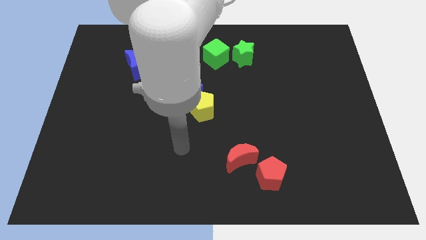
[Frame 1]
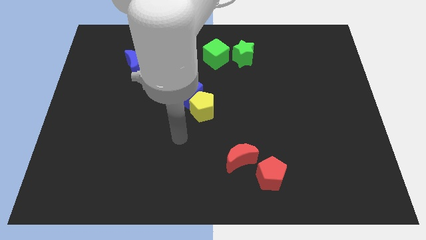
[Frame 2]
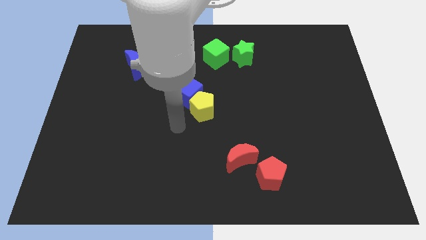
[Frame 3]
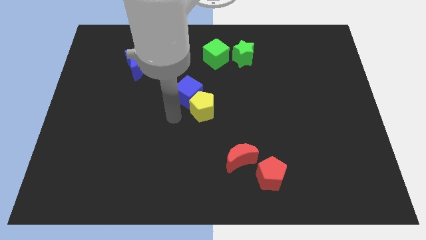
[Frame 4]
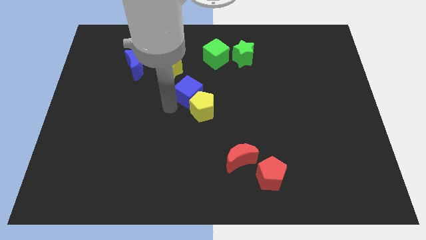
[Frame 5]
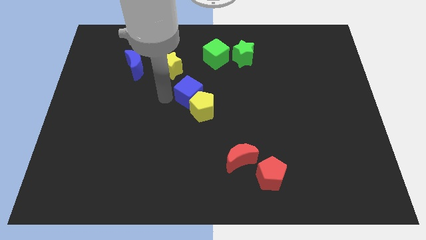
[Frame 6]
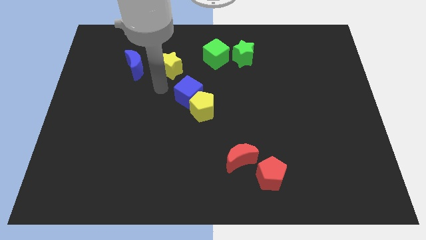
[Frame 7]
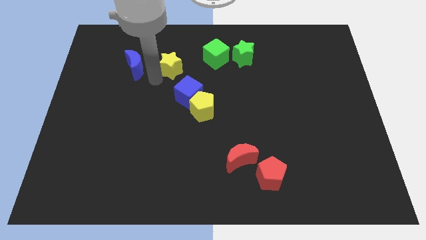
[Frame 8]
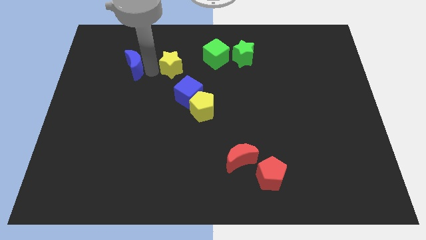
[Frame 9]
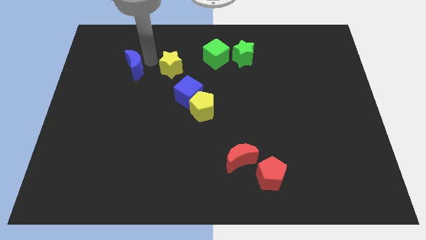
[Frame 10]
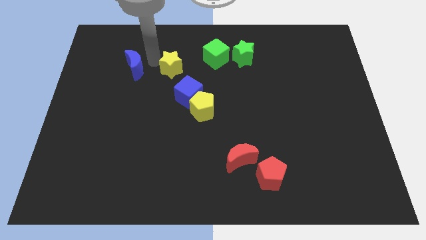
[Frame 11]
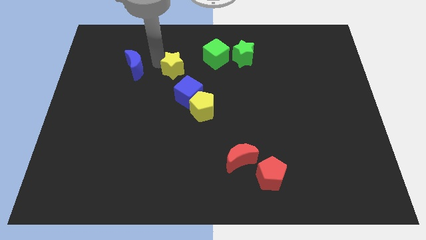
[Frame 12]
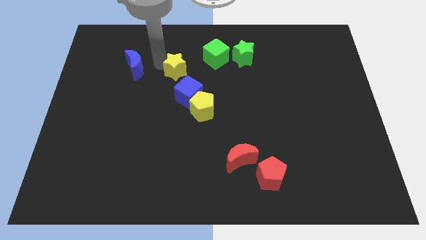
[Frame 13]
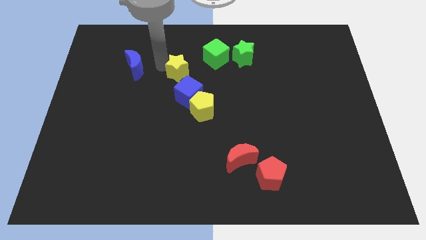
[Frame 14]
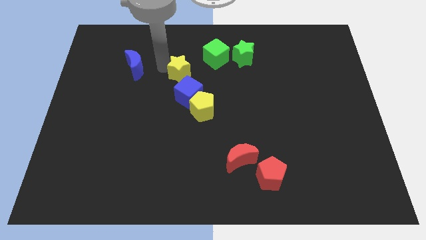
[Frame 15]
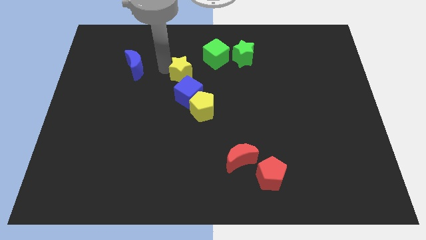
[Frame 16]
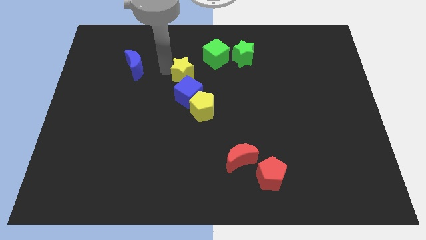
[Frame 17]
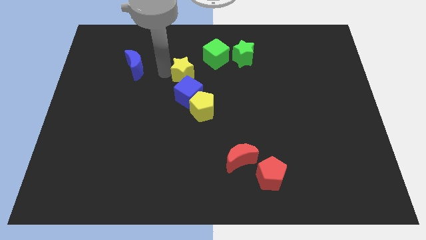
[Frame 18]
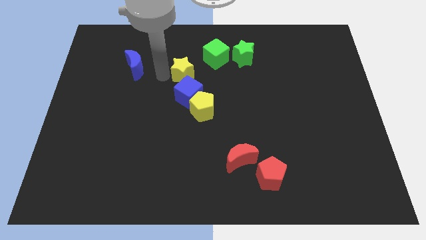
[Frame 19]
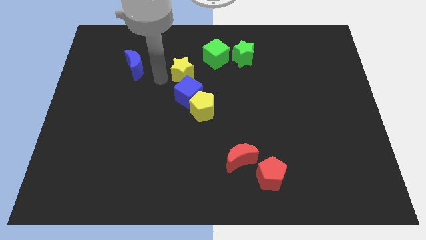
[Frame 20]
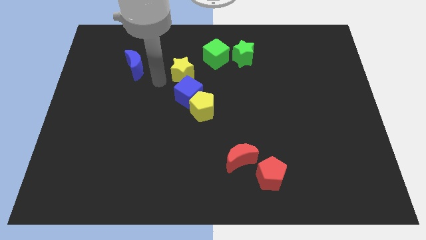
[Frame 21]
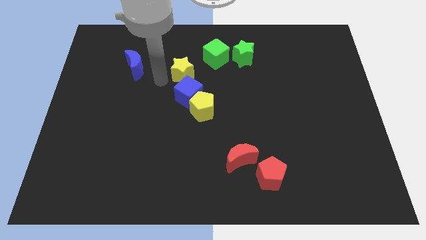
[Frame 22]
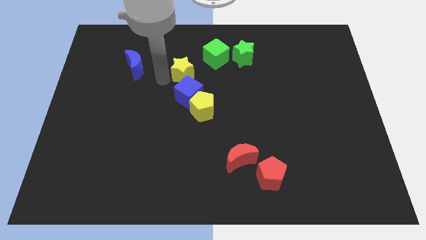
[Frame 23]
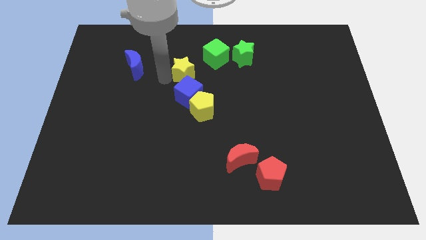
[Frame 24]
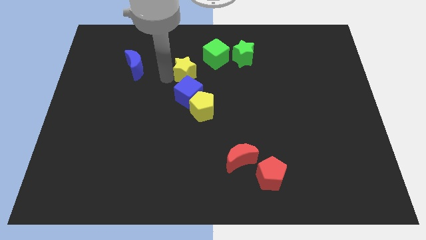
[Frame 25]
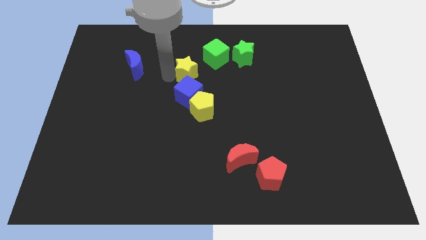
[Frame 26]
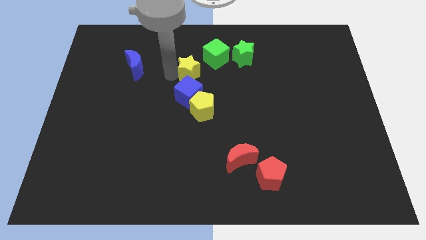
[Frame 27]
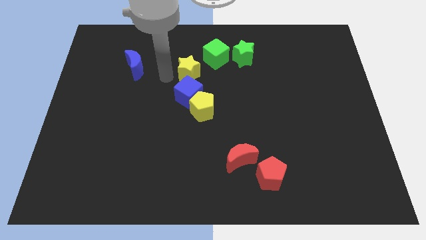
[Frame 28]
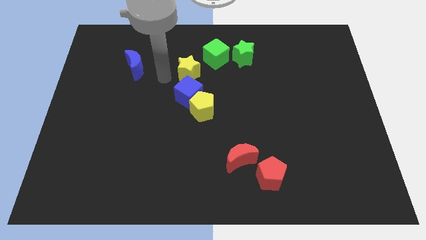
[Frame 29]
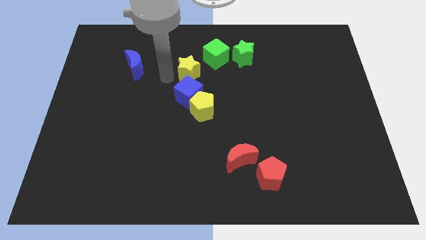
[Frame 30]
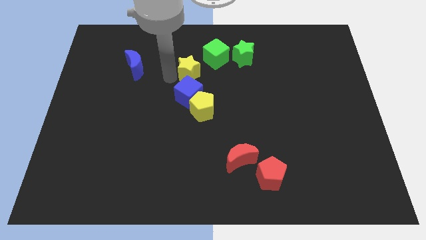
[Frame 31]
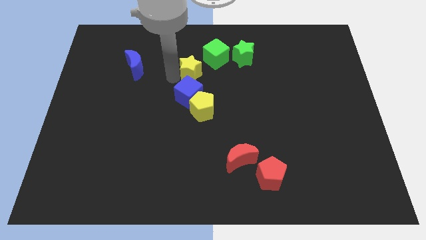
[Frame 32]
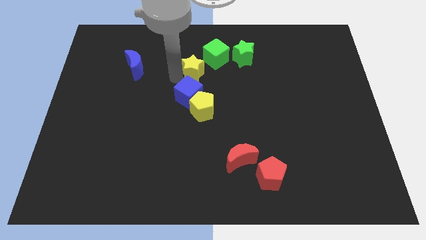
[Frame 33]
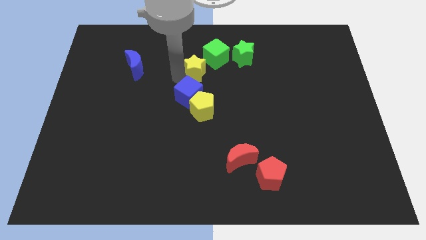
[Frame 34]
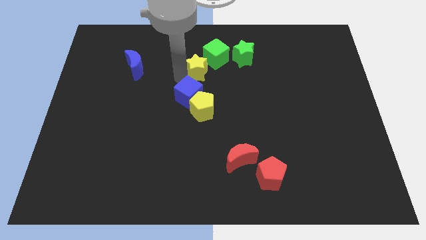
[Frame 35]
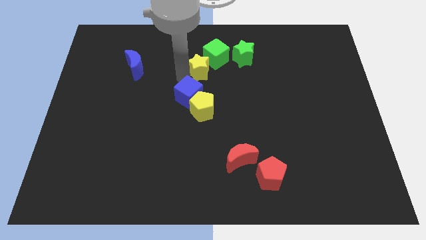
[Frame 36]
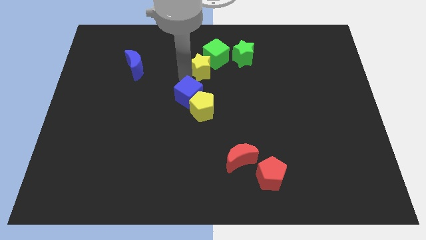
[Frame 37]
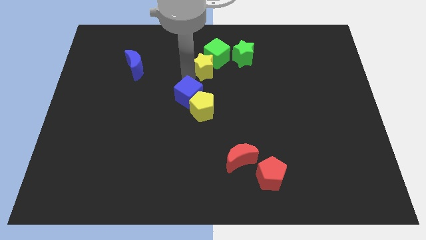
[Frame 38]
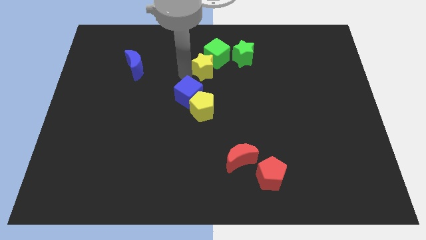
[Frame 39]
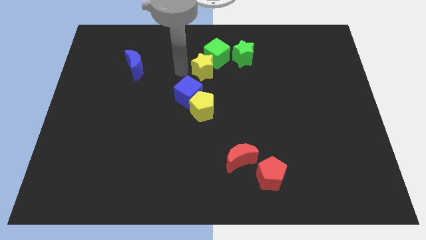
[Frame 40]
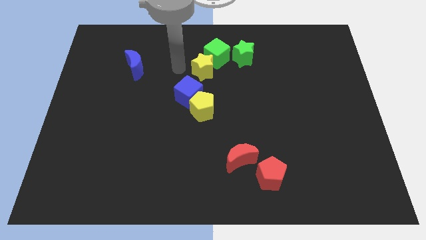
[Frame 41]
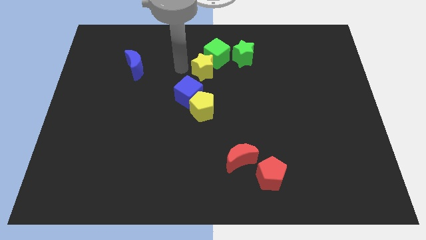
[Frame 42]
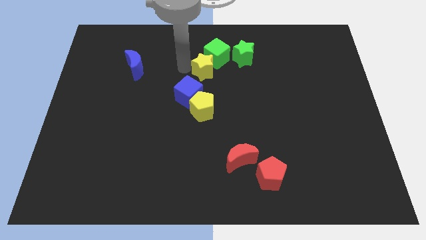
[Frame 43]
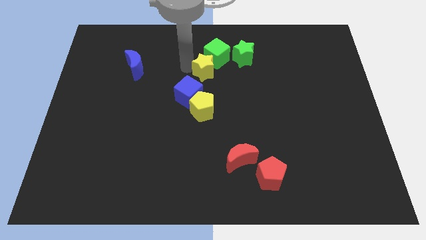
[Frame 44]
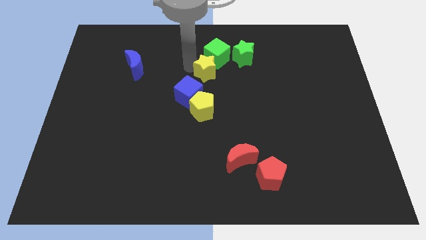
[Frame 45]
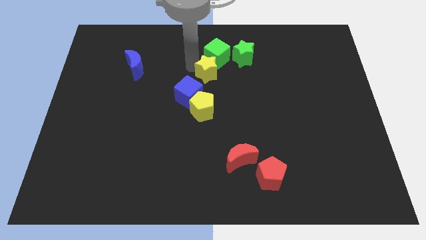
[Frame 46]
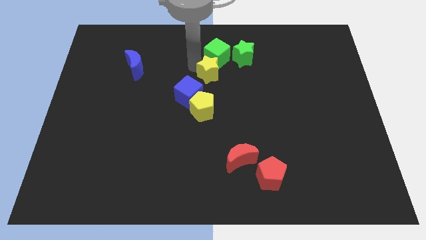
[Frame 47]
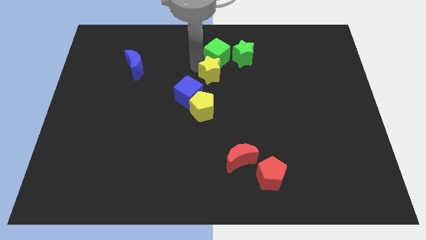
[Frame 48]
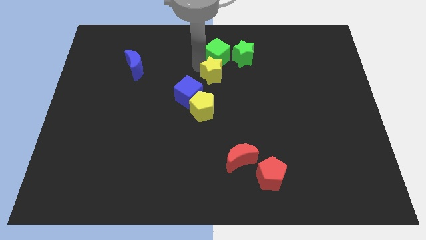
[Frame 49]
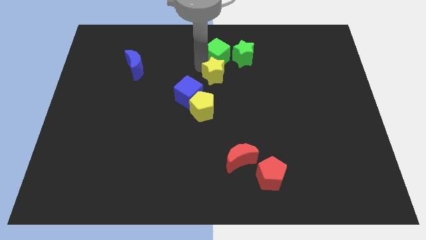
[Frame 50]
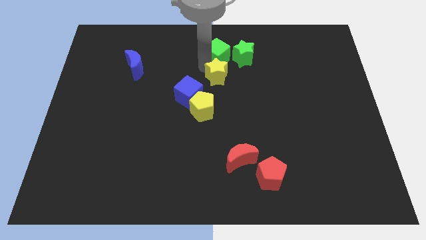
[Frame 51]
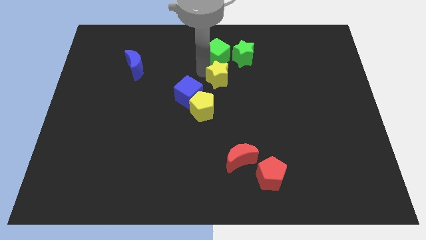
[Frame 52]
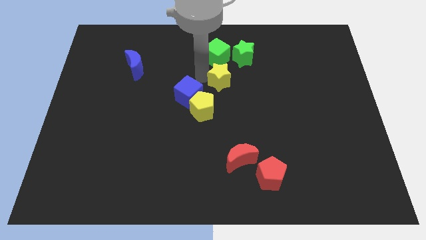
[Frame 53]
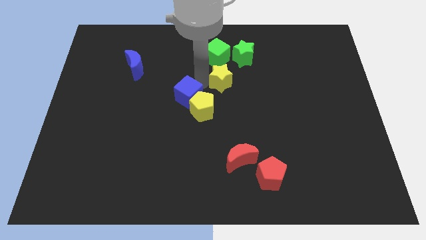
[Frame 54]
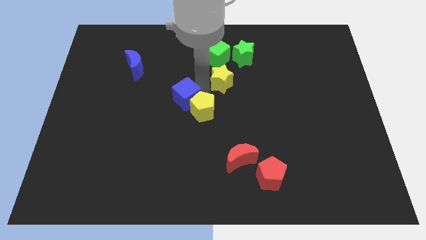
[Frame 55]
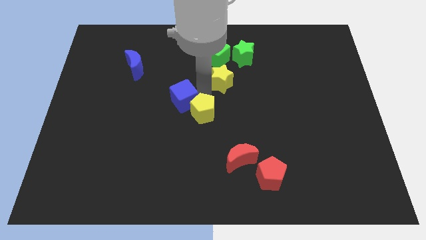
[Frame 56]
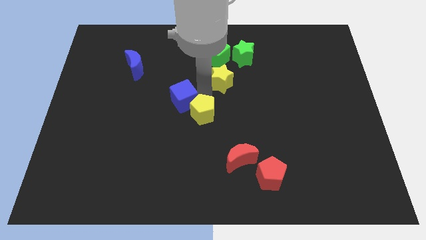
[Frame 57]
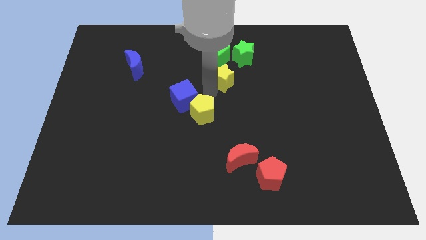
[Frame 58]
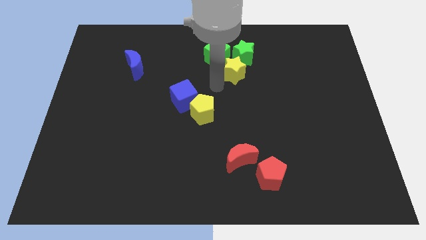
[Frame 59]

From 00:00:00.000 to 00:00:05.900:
put the yellow star next to the green star

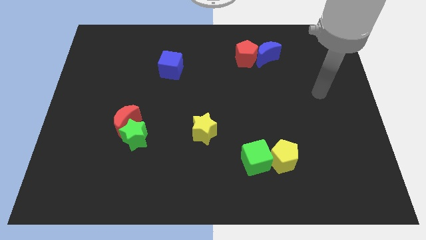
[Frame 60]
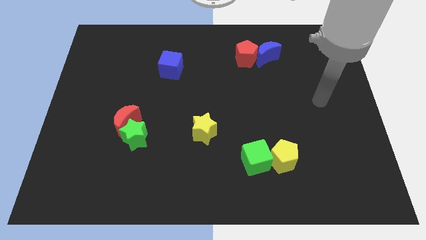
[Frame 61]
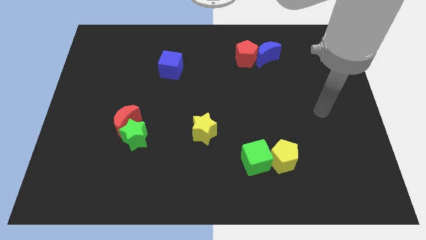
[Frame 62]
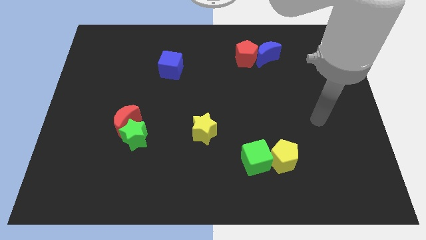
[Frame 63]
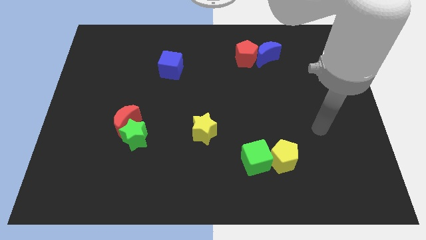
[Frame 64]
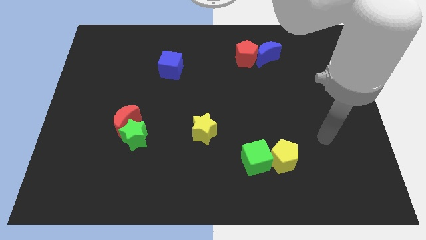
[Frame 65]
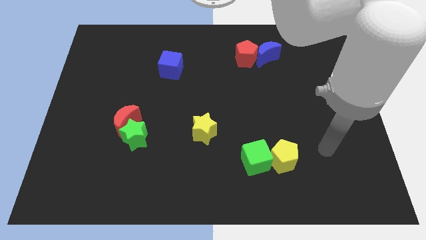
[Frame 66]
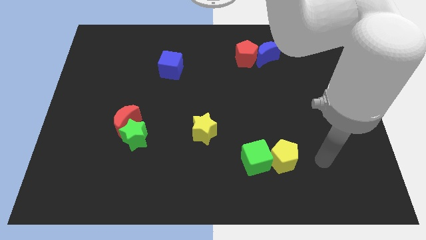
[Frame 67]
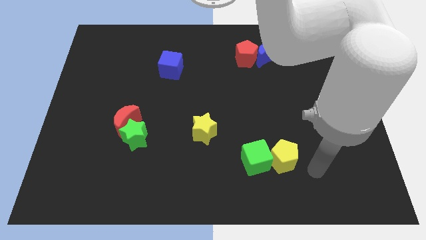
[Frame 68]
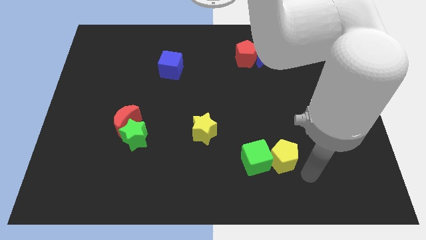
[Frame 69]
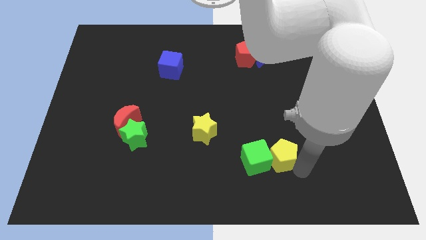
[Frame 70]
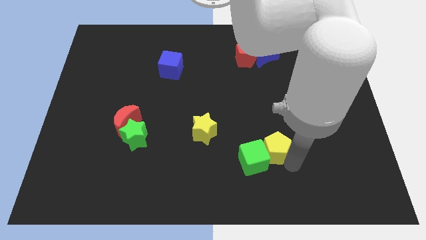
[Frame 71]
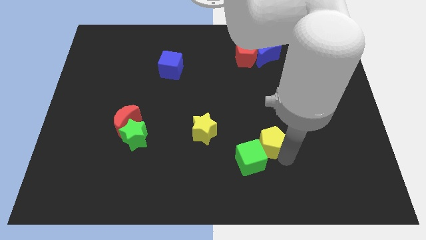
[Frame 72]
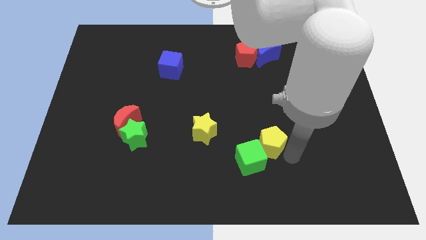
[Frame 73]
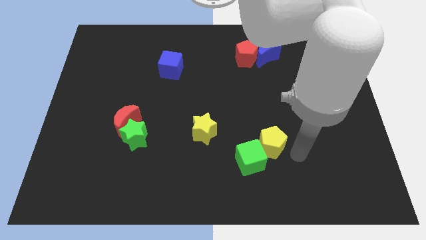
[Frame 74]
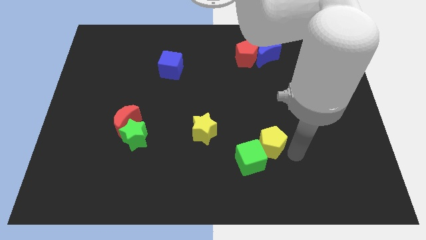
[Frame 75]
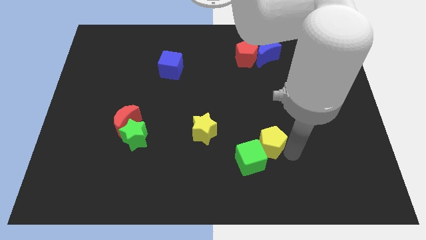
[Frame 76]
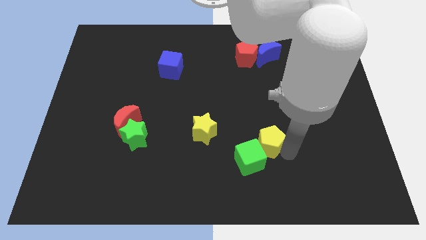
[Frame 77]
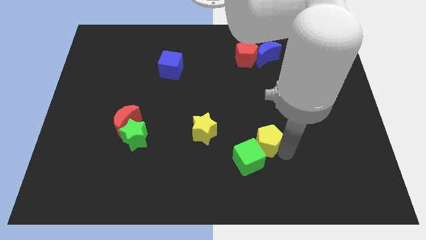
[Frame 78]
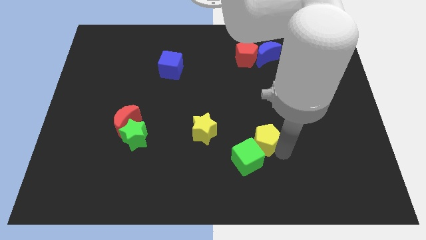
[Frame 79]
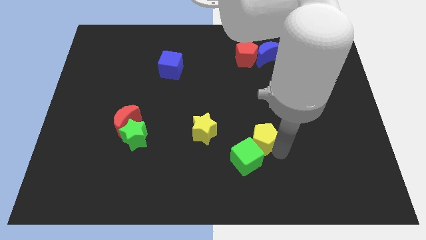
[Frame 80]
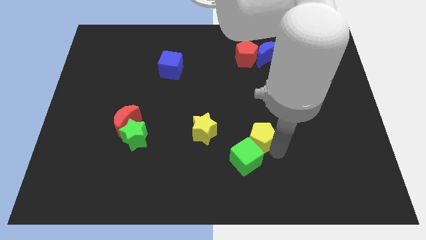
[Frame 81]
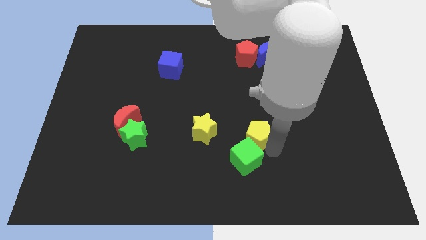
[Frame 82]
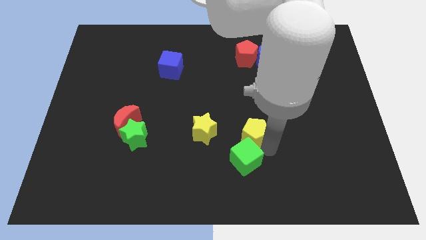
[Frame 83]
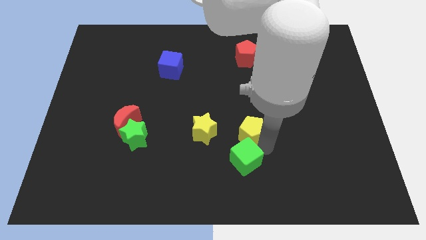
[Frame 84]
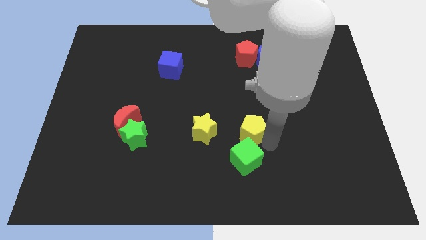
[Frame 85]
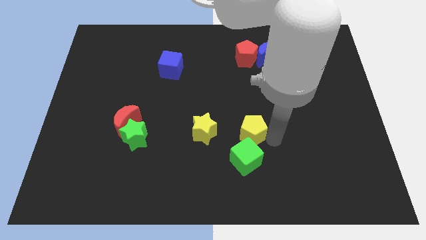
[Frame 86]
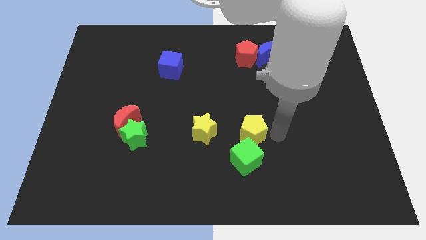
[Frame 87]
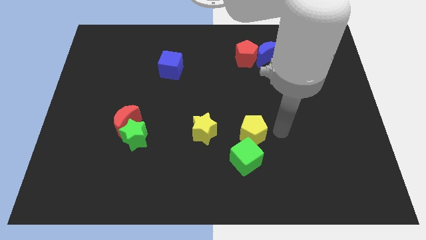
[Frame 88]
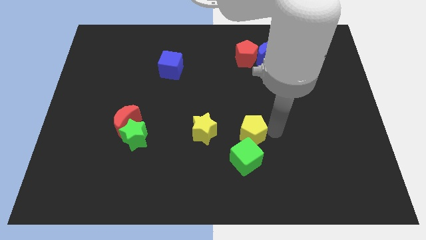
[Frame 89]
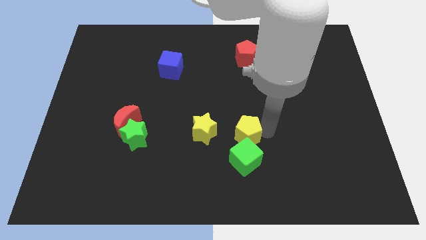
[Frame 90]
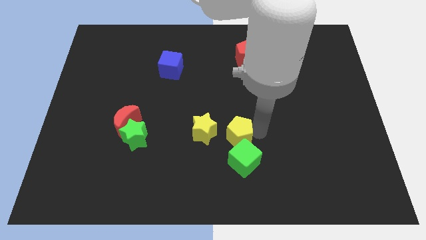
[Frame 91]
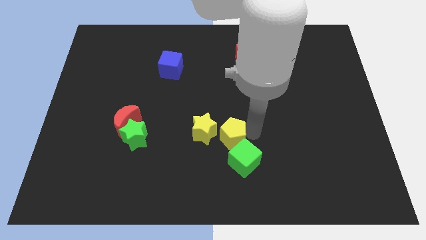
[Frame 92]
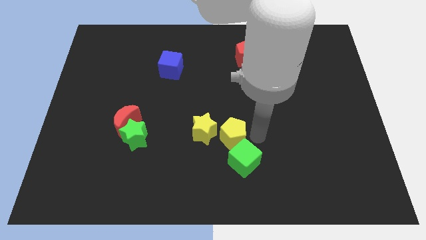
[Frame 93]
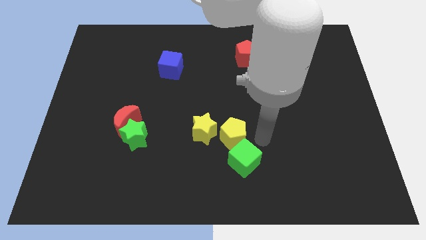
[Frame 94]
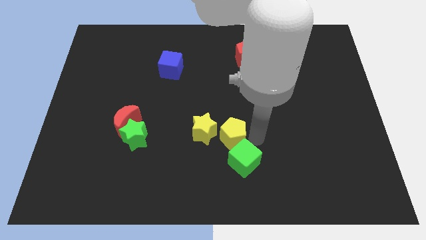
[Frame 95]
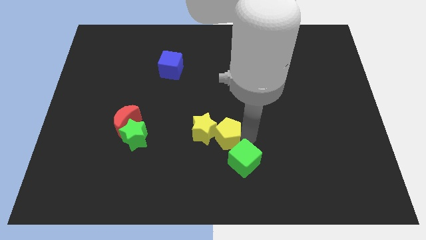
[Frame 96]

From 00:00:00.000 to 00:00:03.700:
slide the yellow pentagon towards the yellow star
